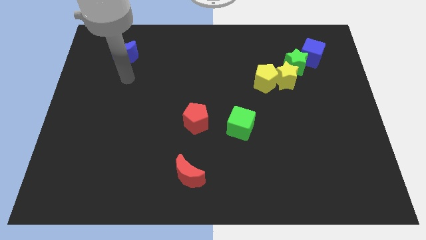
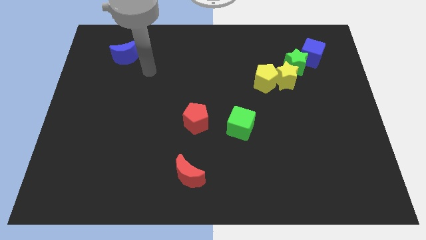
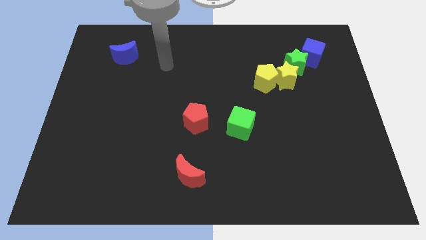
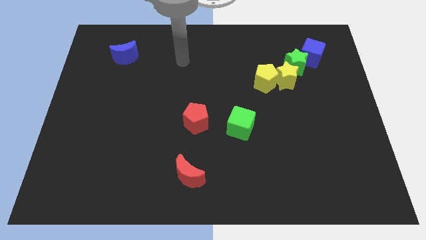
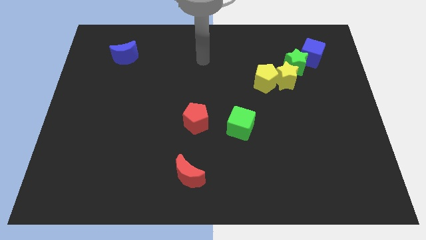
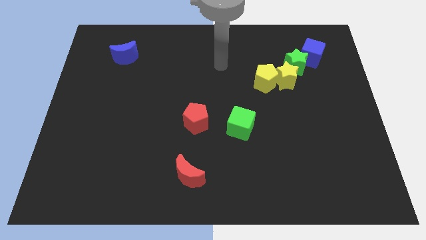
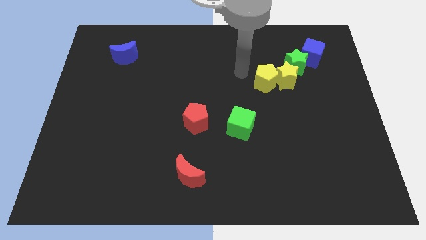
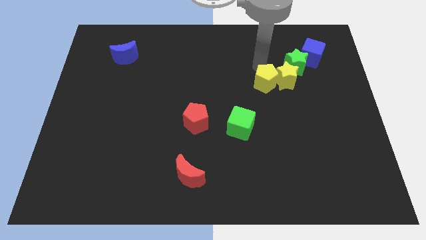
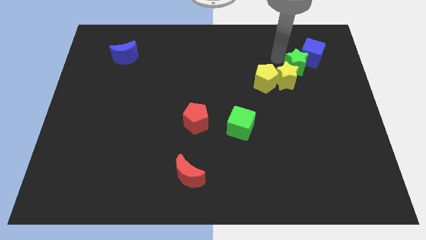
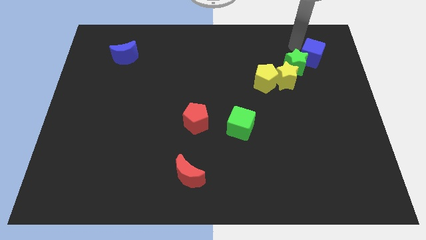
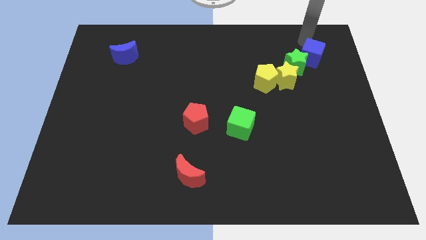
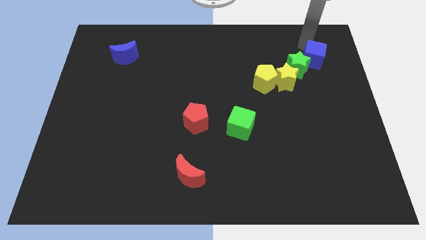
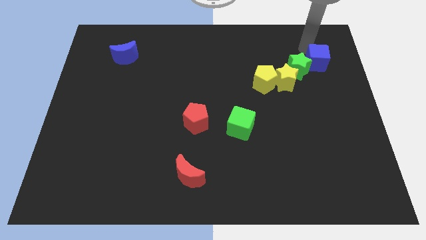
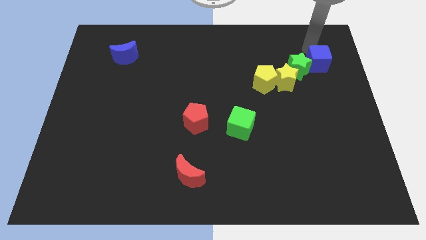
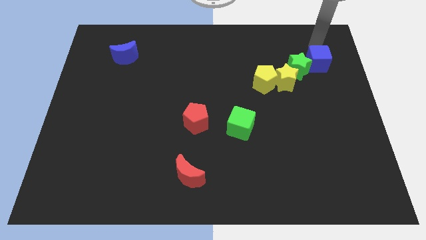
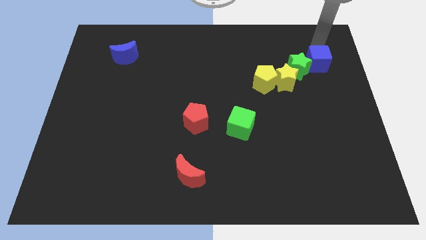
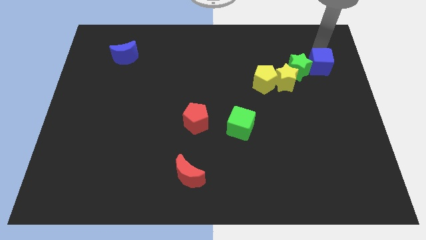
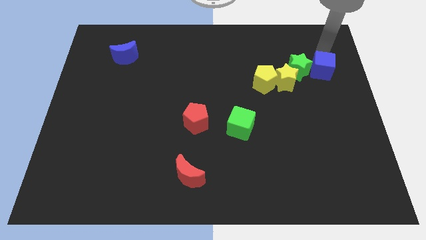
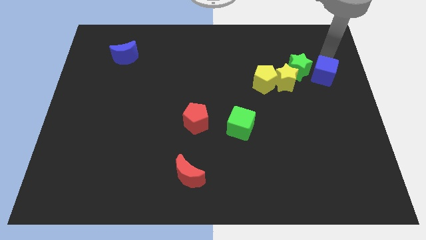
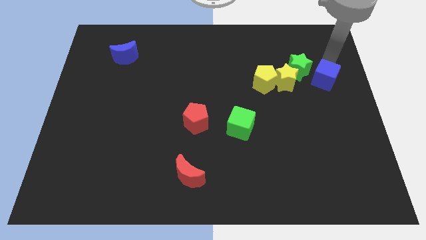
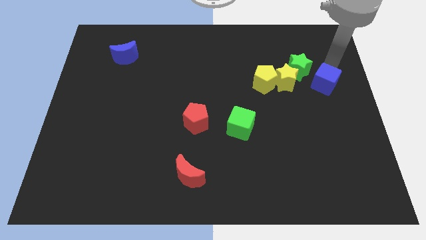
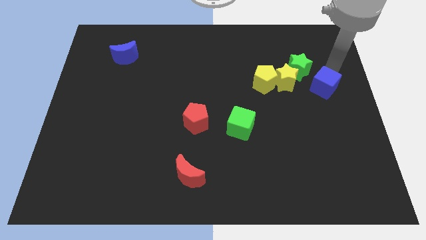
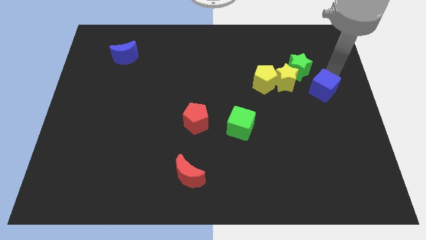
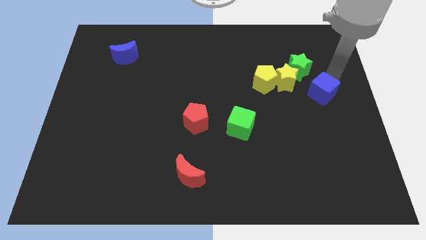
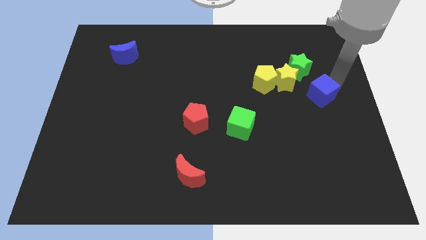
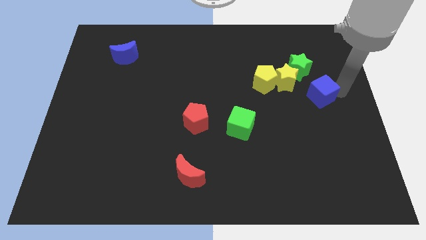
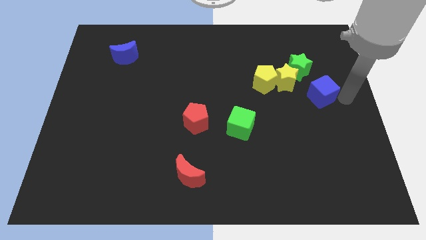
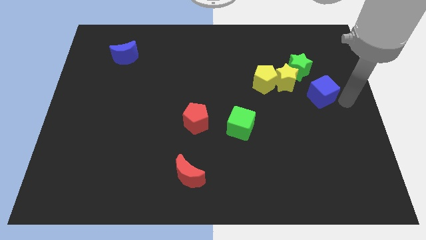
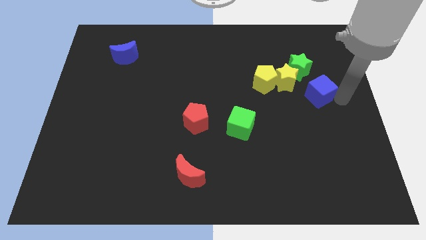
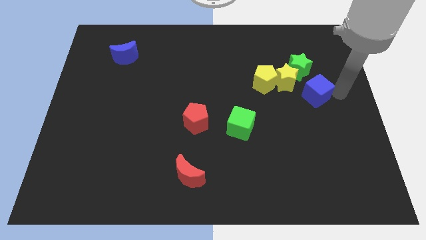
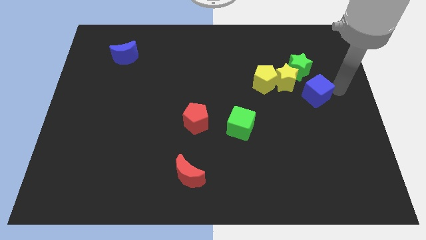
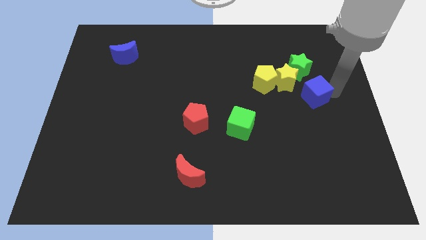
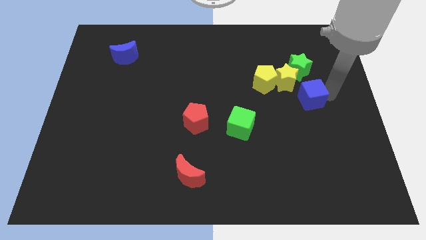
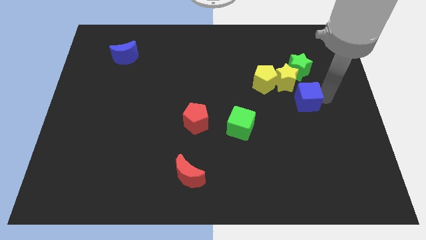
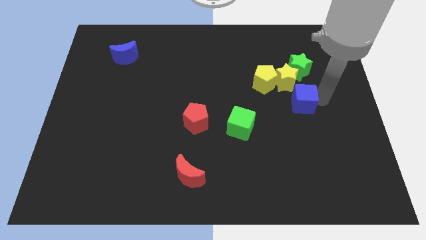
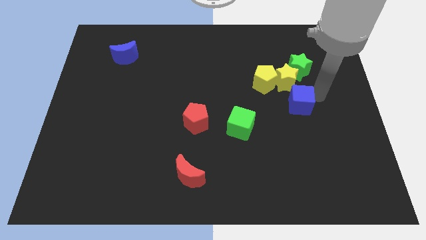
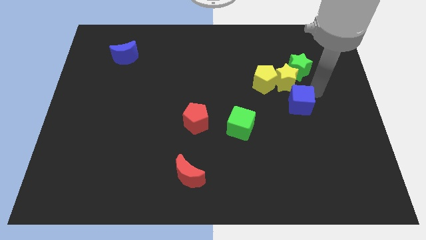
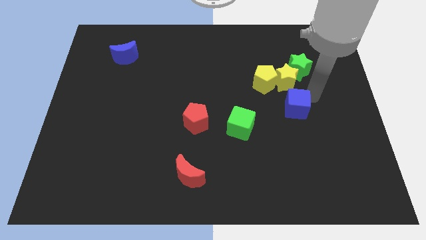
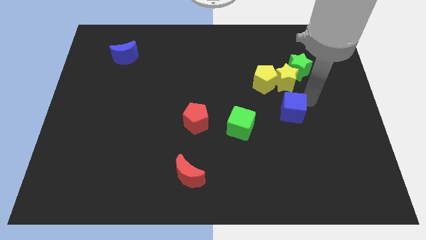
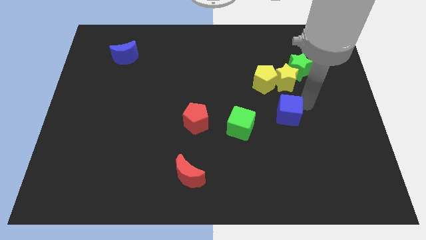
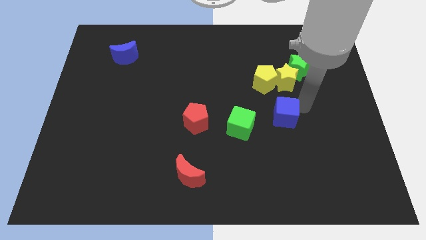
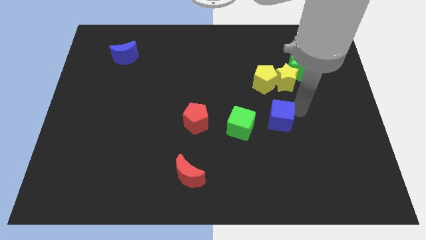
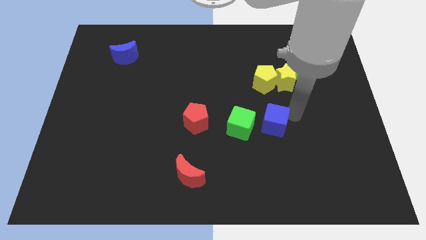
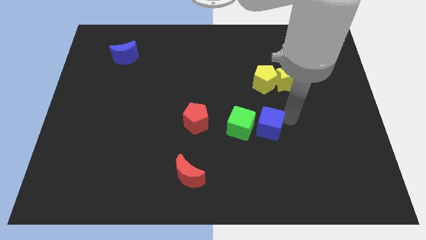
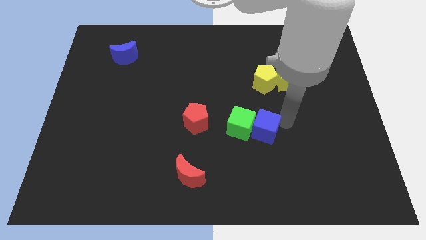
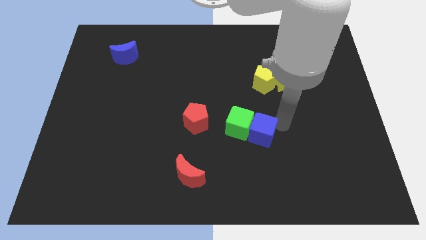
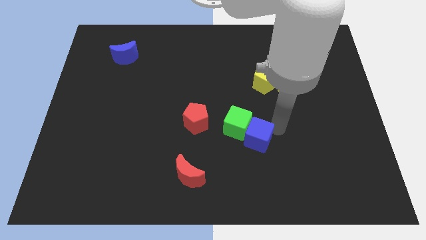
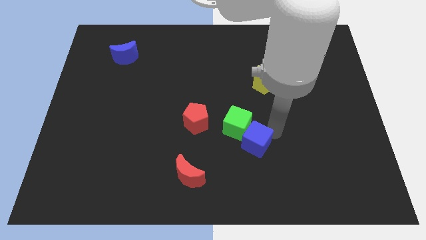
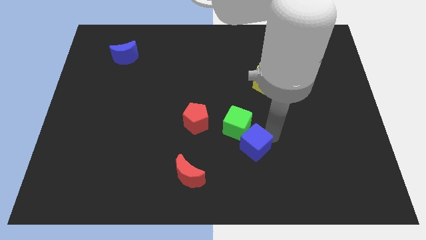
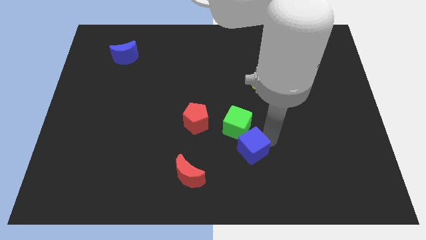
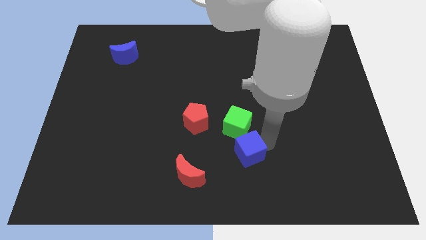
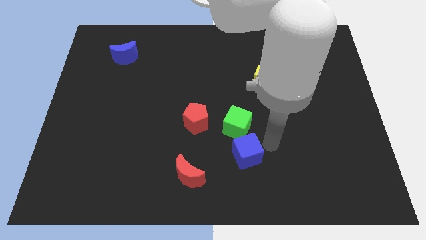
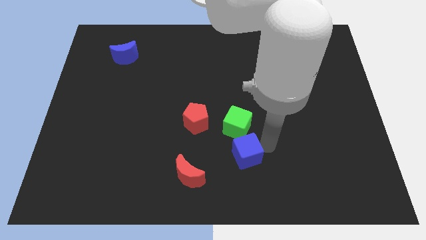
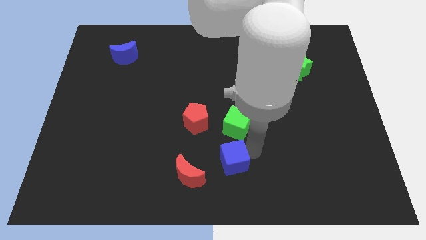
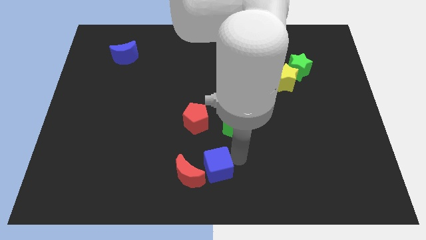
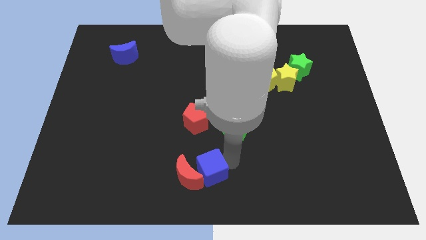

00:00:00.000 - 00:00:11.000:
push the blue cube towards the red moon

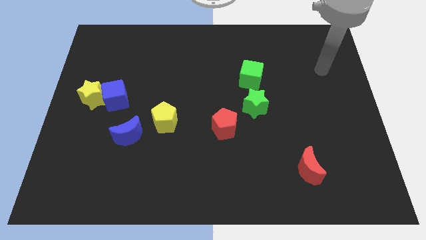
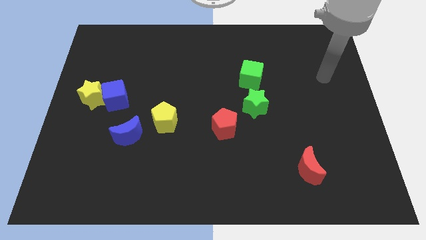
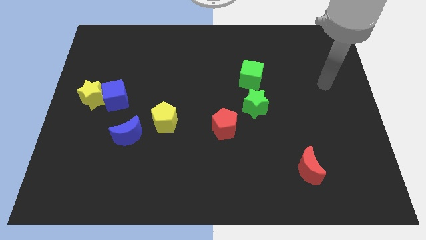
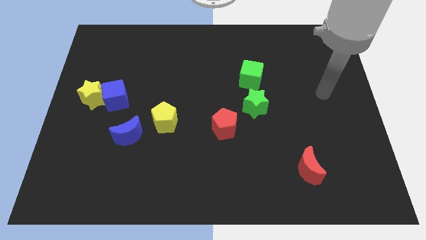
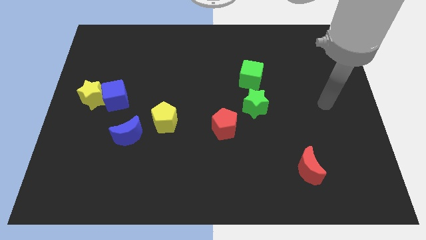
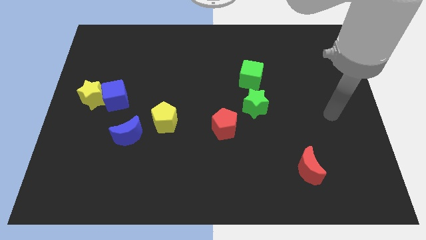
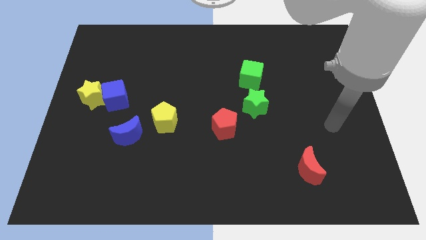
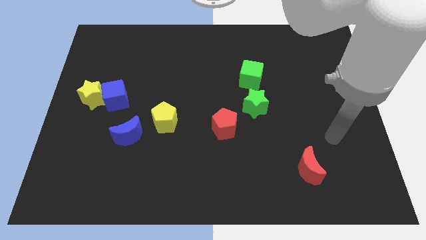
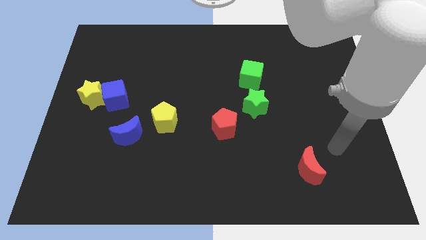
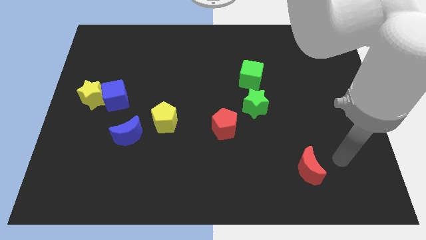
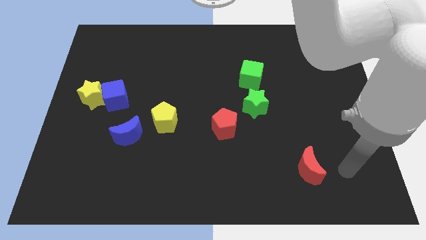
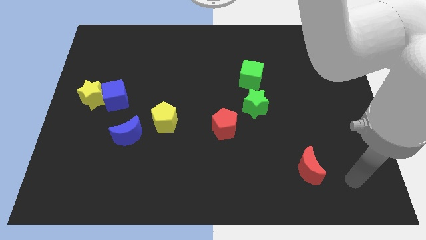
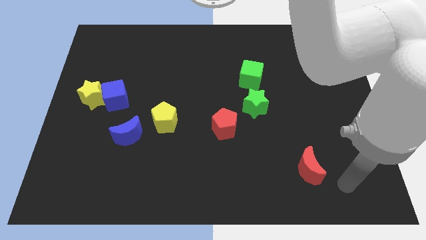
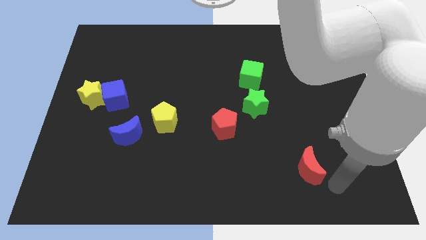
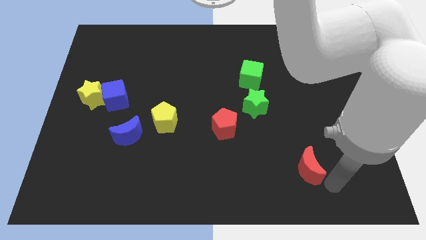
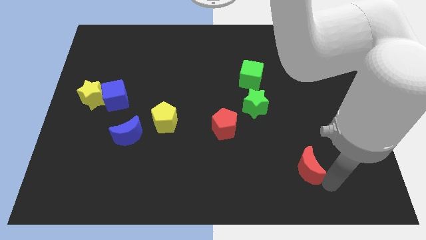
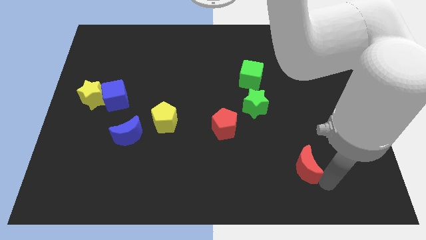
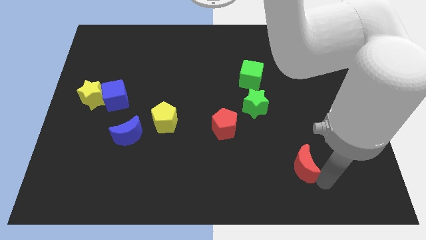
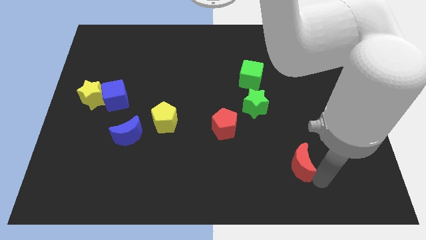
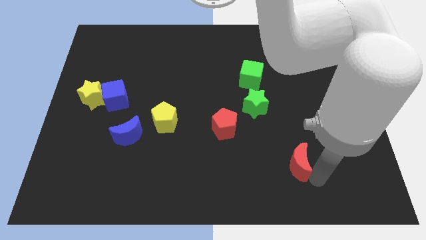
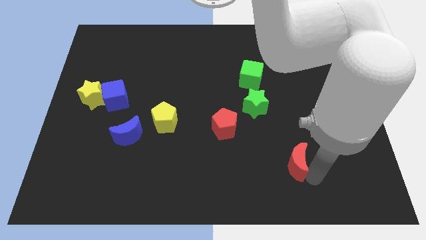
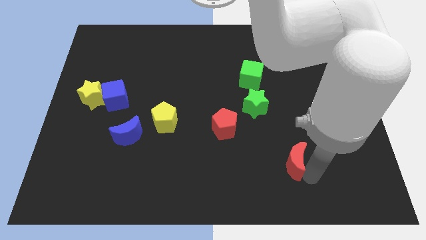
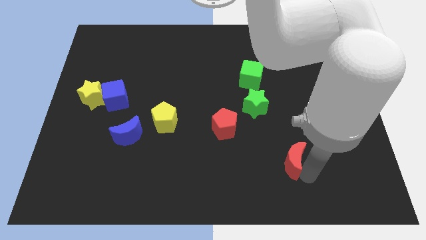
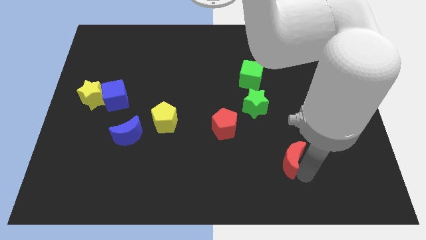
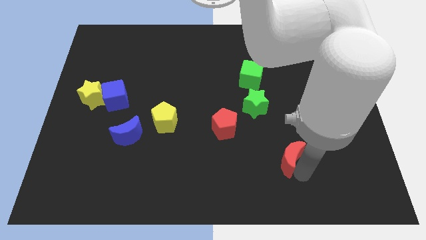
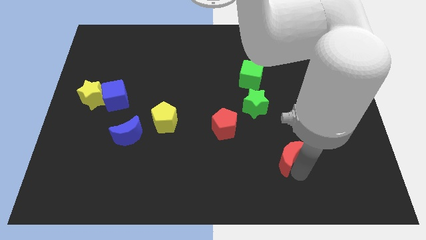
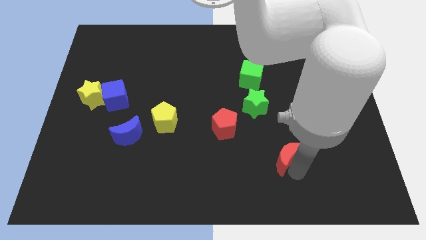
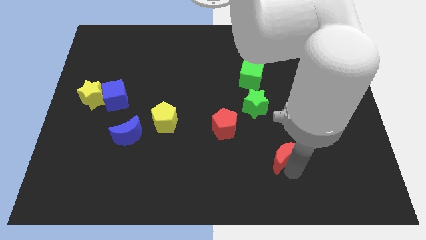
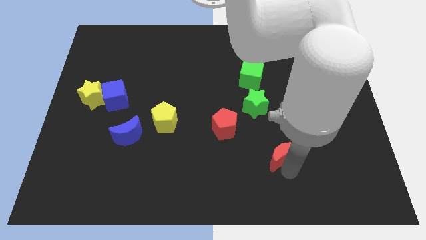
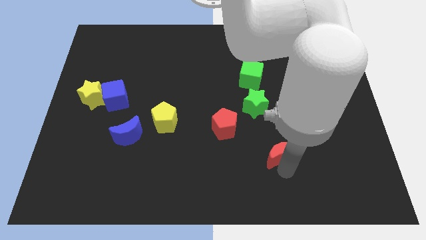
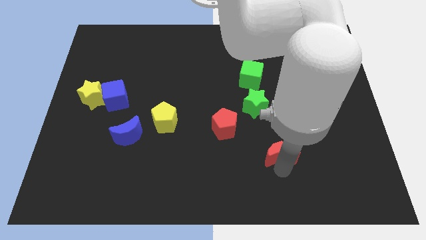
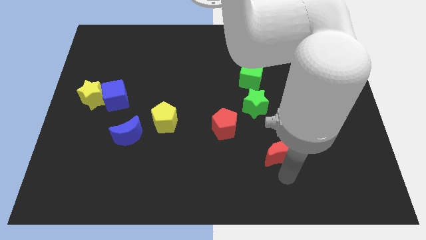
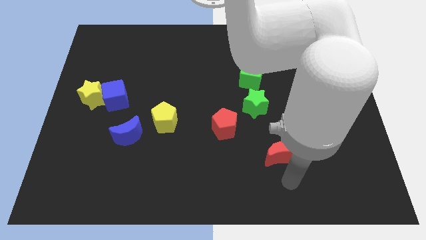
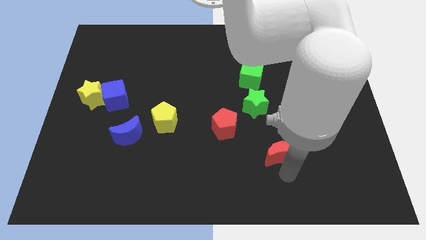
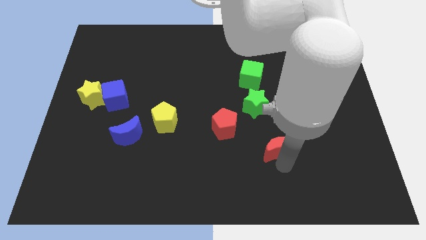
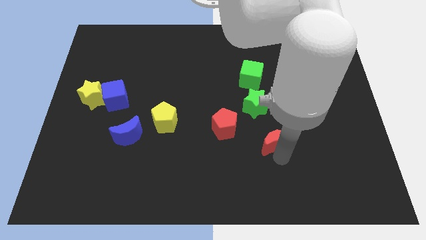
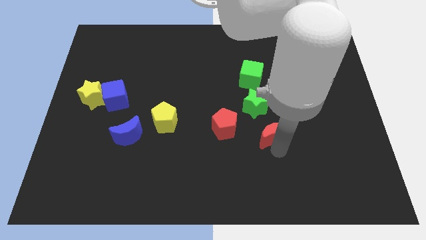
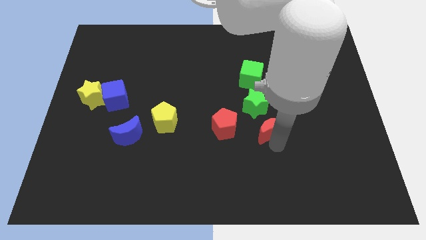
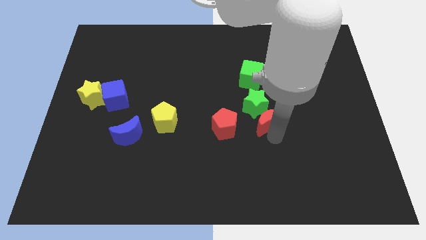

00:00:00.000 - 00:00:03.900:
push the red moon close to the green star
